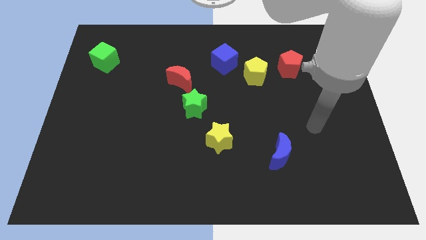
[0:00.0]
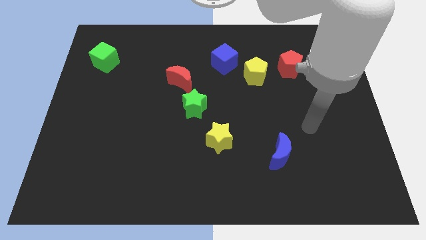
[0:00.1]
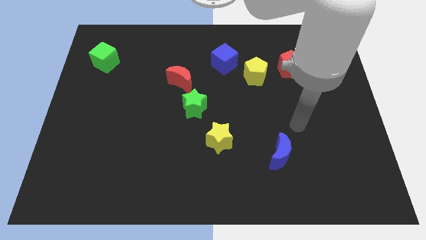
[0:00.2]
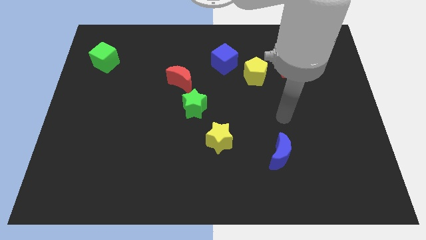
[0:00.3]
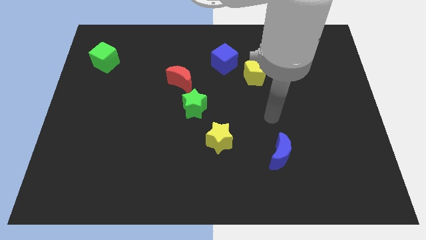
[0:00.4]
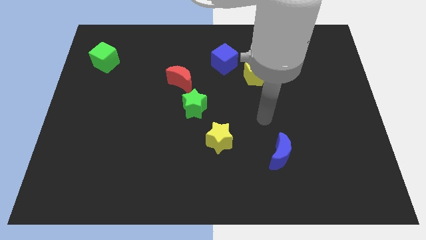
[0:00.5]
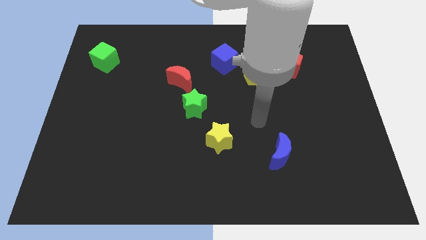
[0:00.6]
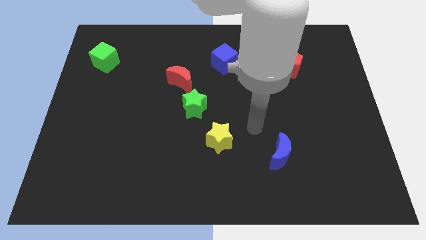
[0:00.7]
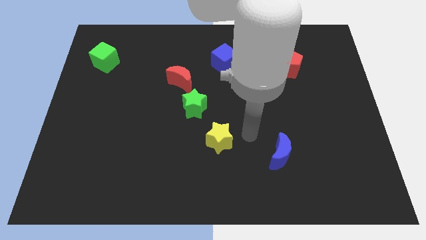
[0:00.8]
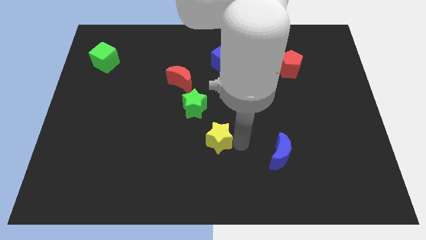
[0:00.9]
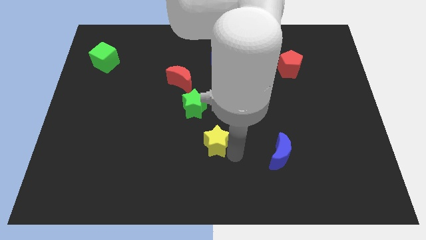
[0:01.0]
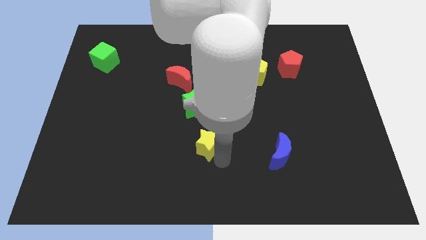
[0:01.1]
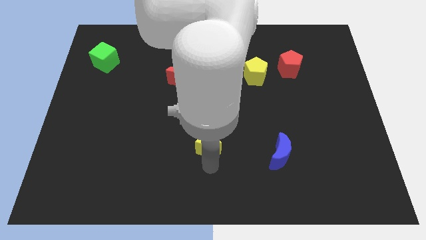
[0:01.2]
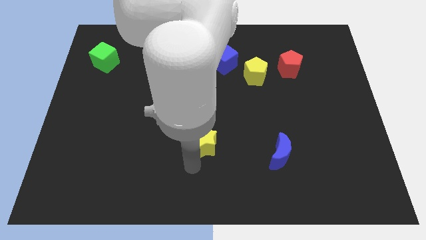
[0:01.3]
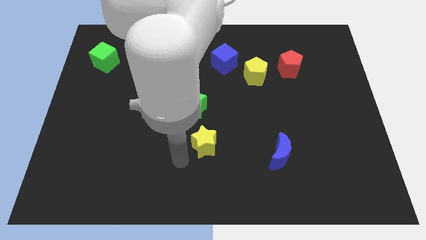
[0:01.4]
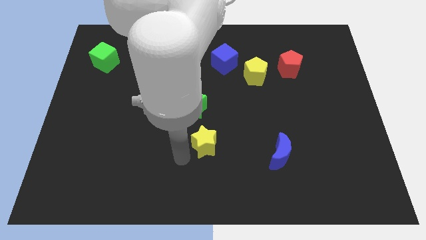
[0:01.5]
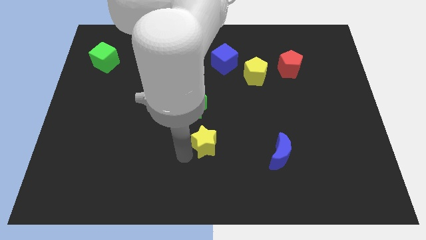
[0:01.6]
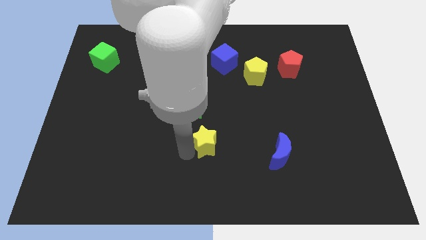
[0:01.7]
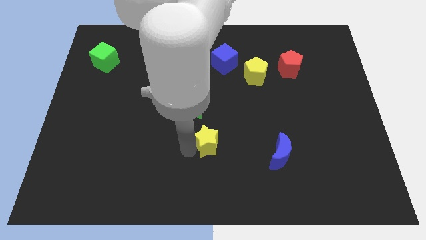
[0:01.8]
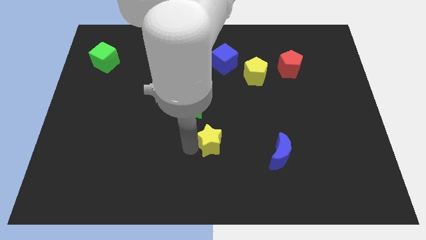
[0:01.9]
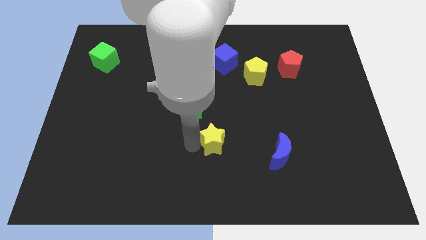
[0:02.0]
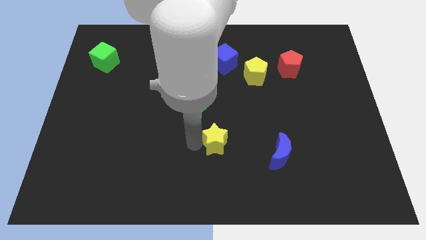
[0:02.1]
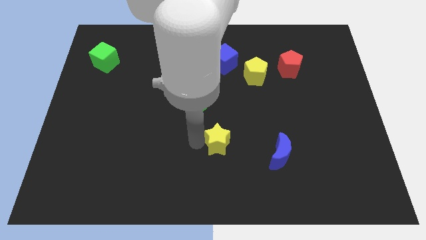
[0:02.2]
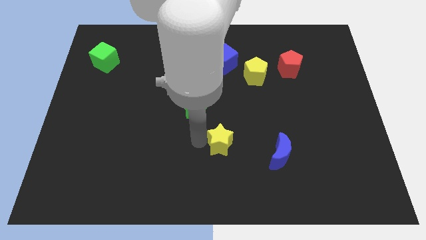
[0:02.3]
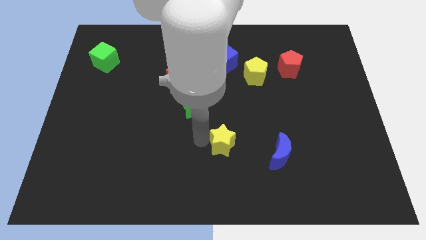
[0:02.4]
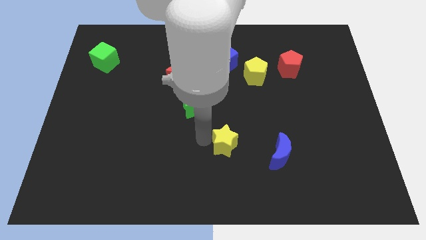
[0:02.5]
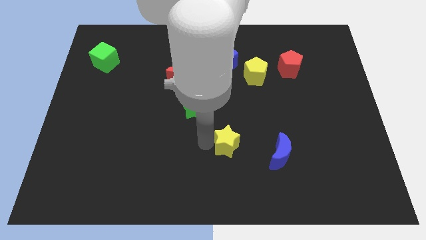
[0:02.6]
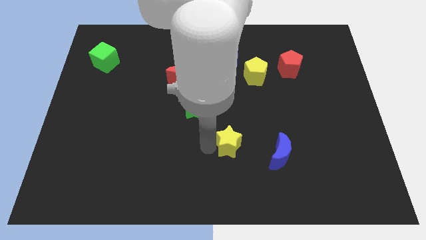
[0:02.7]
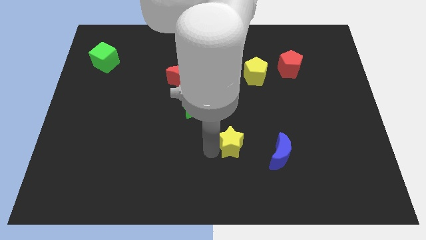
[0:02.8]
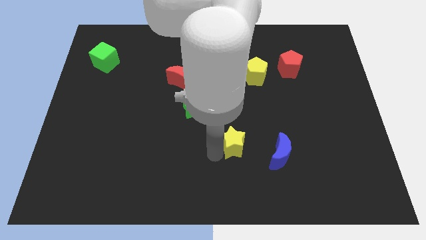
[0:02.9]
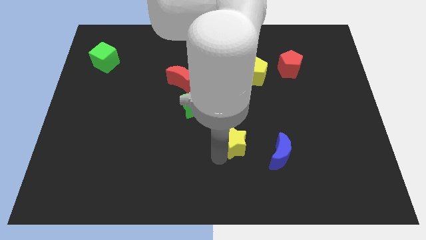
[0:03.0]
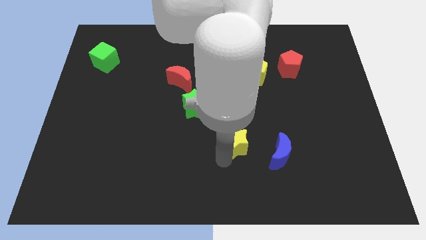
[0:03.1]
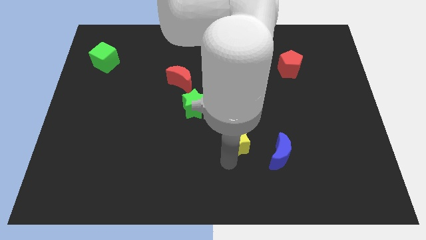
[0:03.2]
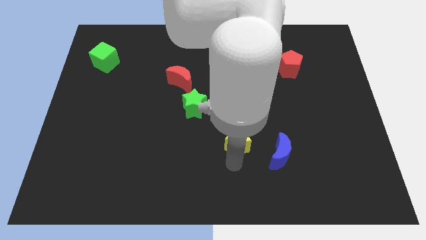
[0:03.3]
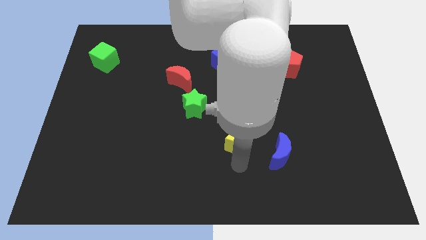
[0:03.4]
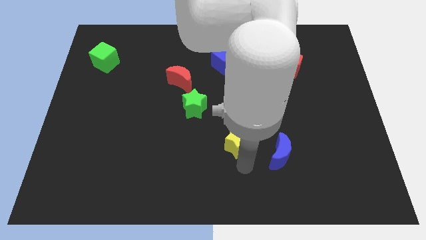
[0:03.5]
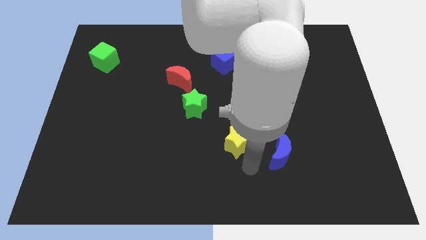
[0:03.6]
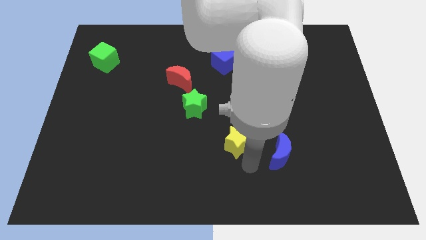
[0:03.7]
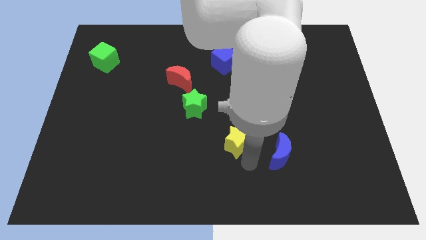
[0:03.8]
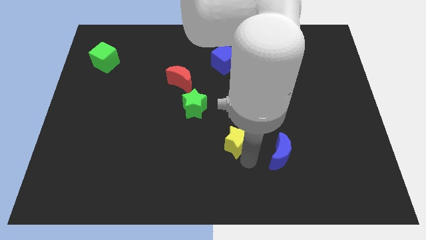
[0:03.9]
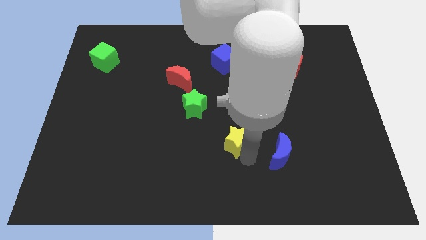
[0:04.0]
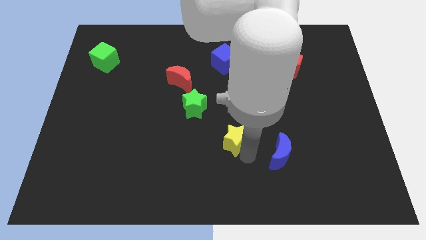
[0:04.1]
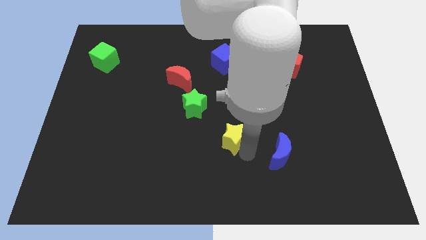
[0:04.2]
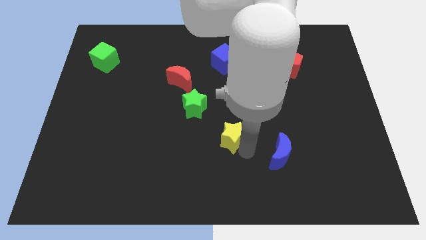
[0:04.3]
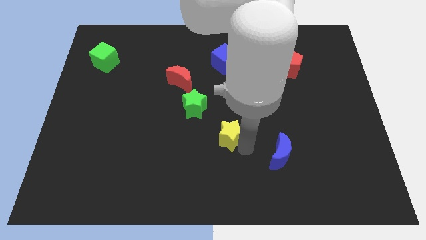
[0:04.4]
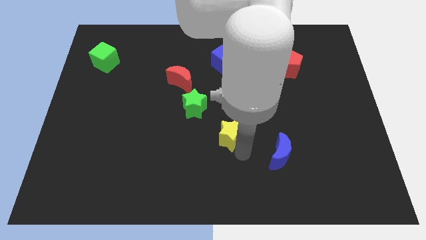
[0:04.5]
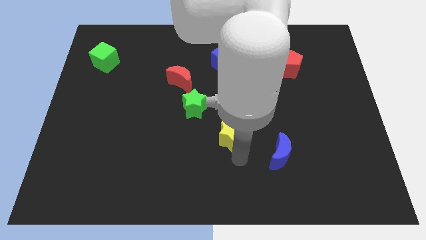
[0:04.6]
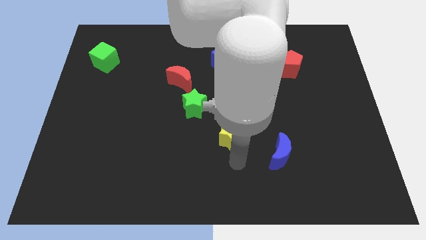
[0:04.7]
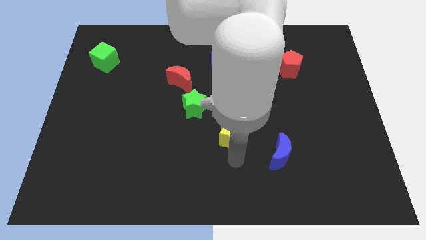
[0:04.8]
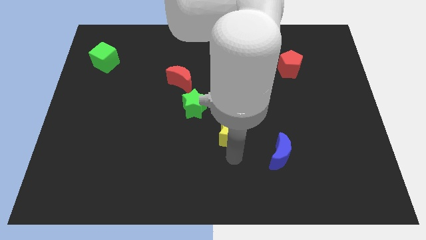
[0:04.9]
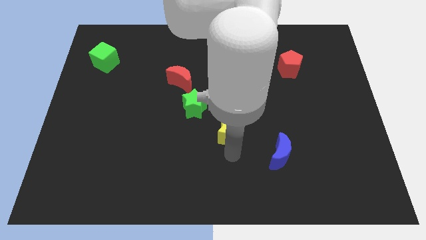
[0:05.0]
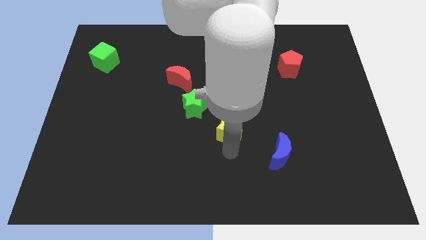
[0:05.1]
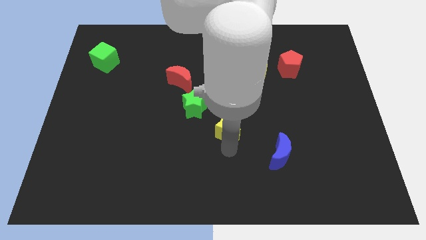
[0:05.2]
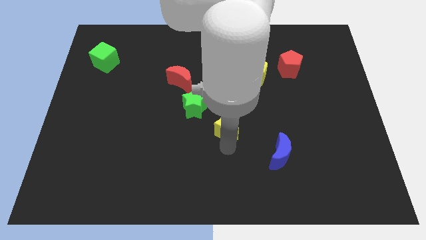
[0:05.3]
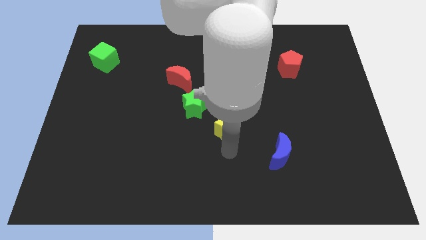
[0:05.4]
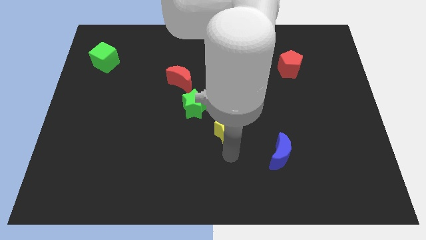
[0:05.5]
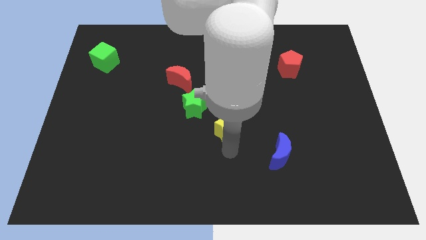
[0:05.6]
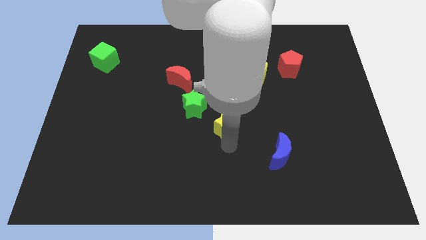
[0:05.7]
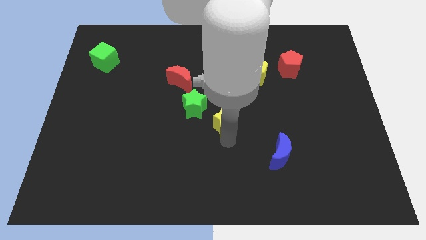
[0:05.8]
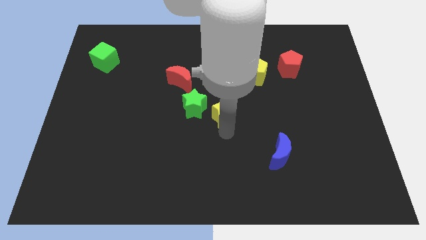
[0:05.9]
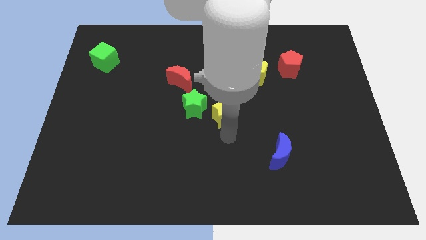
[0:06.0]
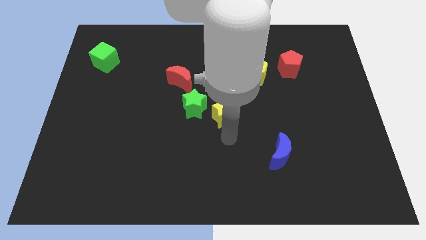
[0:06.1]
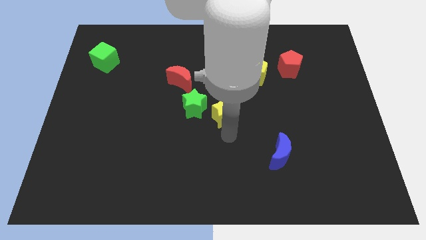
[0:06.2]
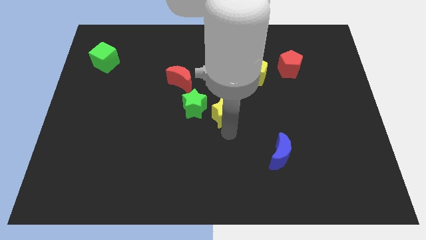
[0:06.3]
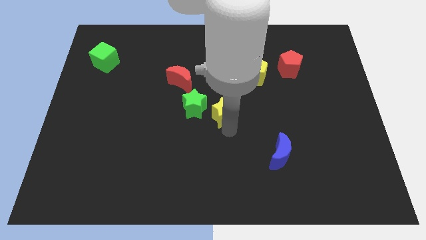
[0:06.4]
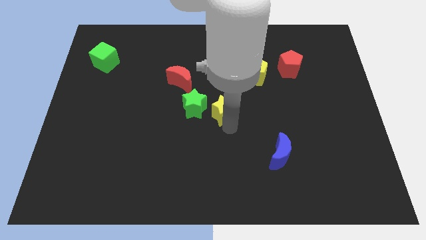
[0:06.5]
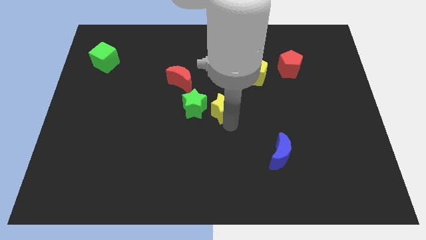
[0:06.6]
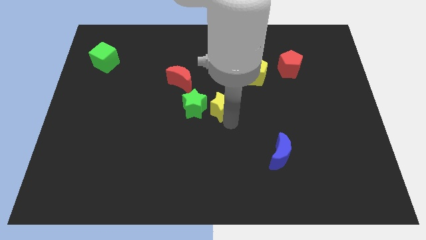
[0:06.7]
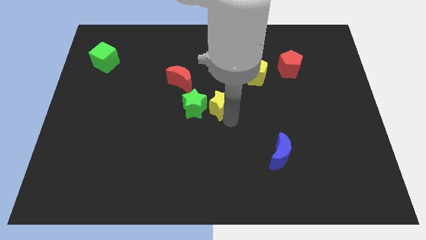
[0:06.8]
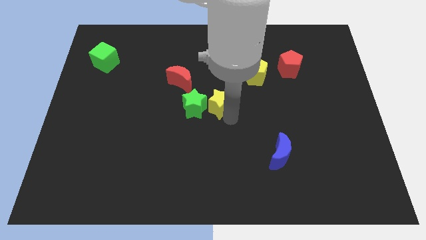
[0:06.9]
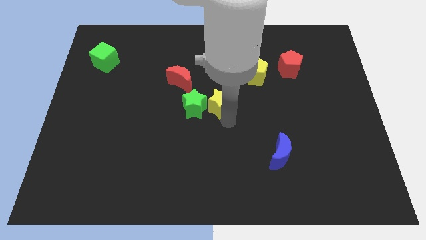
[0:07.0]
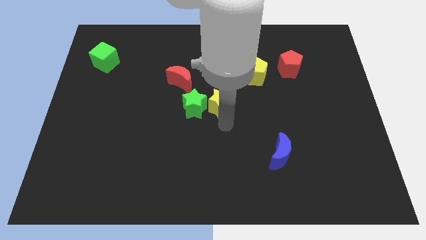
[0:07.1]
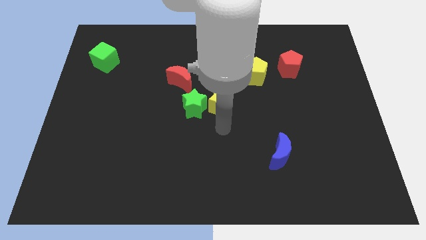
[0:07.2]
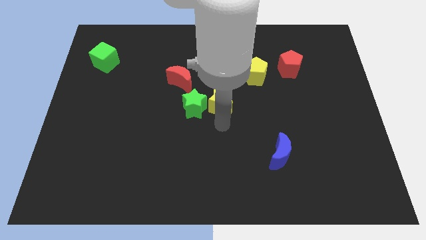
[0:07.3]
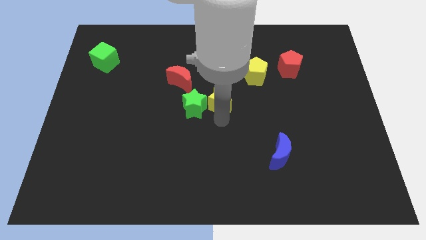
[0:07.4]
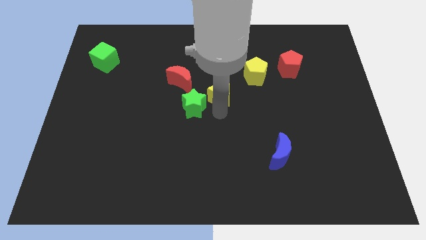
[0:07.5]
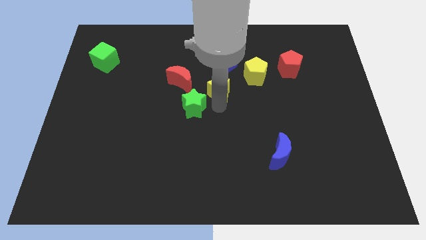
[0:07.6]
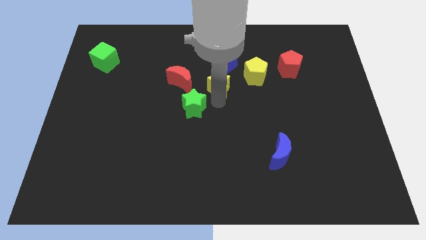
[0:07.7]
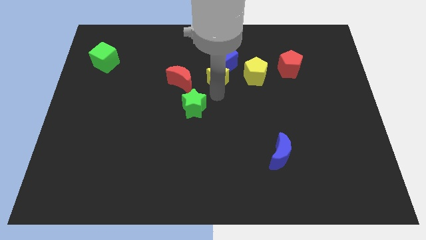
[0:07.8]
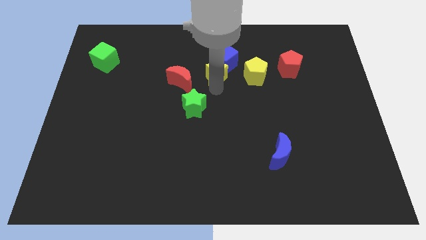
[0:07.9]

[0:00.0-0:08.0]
put the yellow star to the blue cube

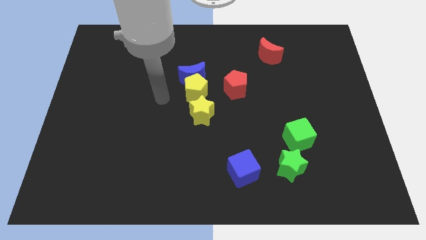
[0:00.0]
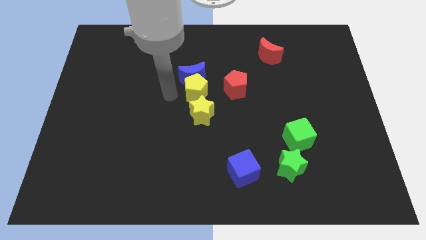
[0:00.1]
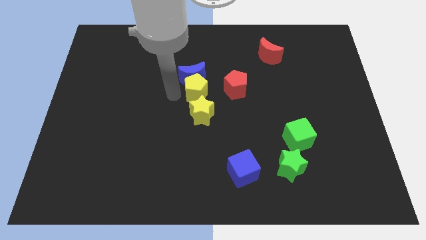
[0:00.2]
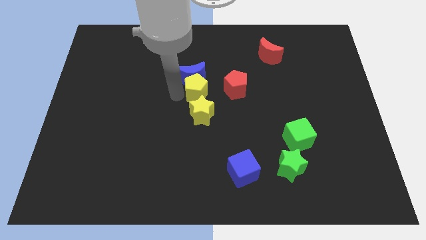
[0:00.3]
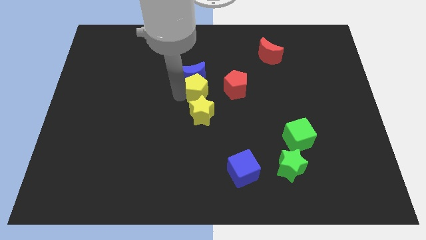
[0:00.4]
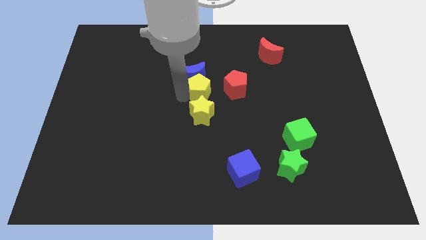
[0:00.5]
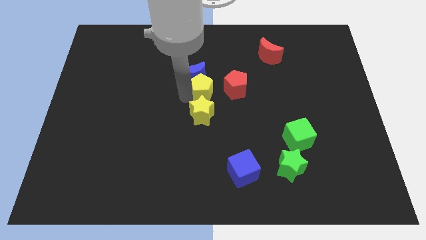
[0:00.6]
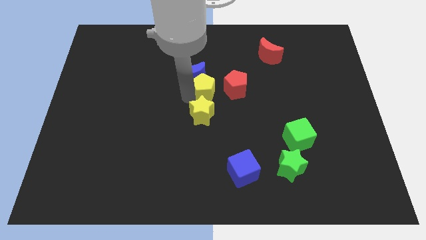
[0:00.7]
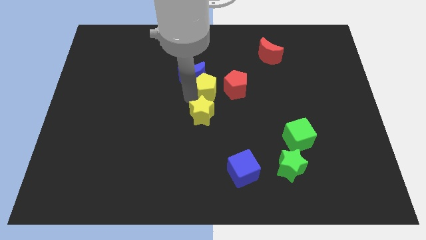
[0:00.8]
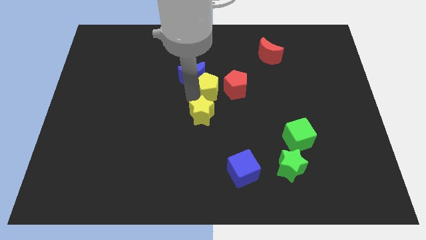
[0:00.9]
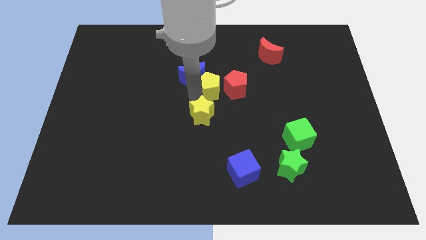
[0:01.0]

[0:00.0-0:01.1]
push the yellow pentagon towards the red pentagon
